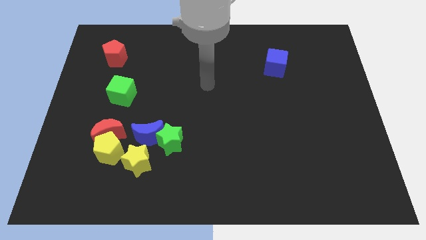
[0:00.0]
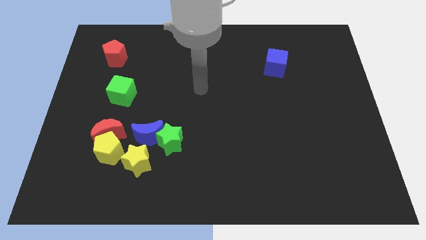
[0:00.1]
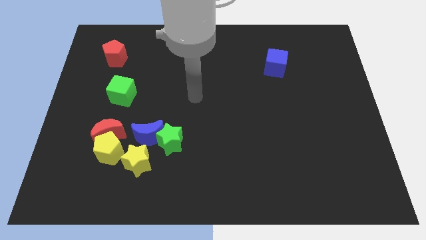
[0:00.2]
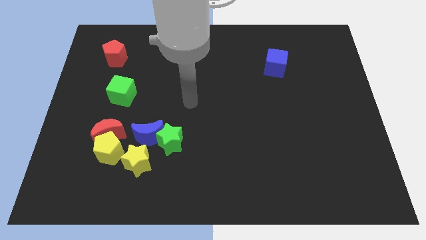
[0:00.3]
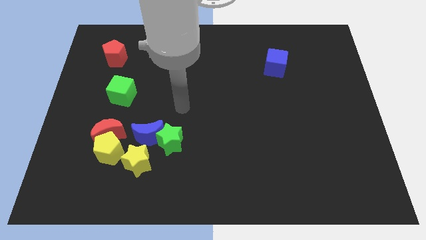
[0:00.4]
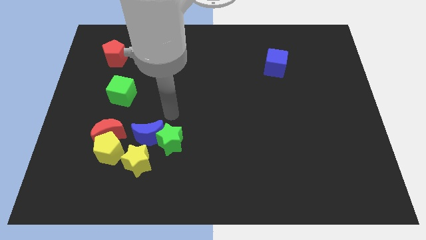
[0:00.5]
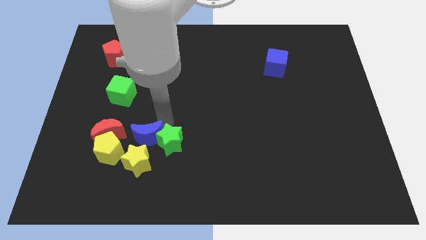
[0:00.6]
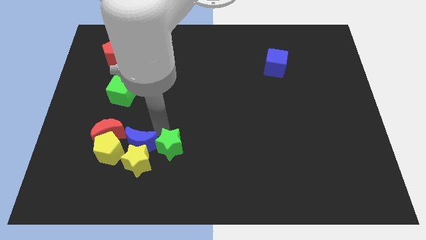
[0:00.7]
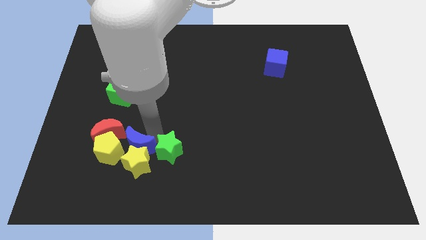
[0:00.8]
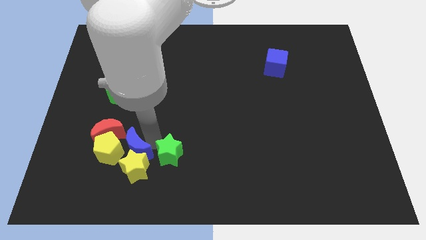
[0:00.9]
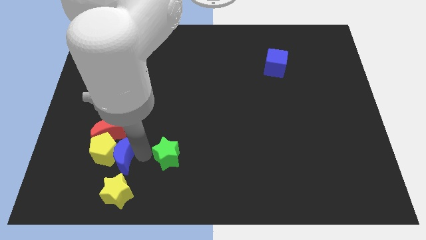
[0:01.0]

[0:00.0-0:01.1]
pull the green star apart from the blue moon and yellow star

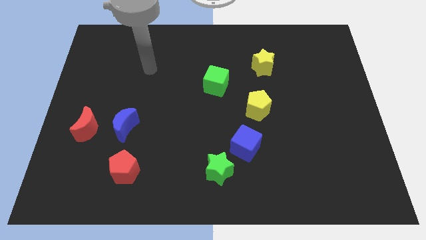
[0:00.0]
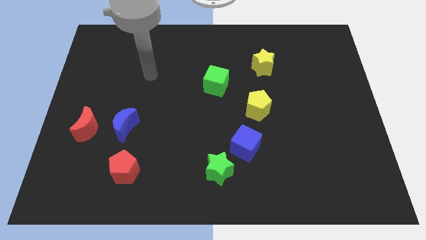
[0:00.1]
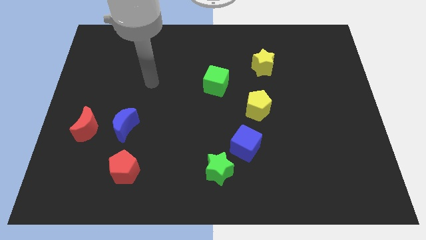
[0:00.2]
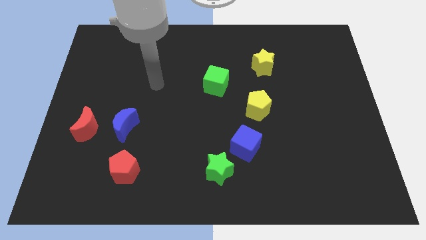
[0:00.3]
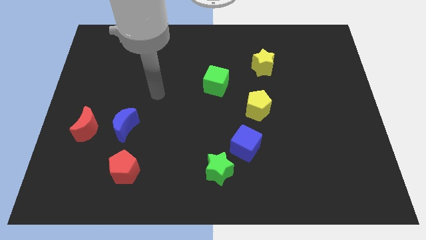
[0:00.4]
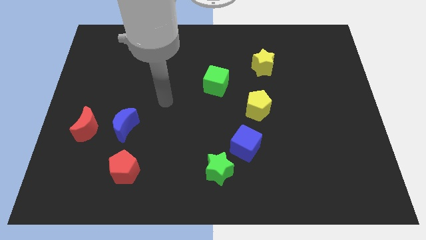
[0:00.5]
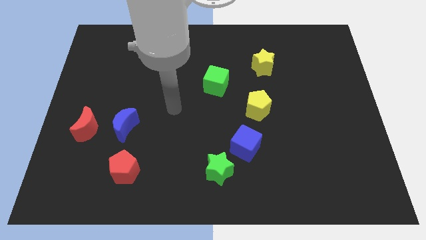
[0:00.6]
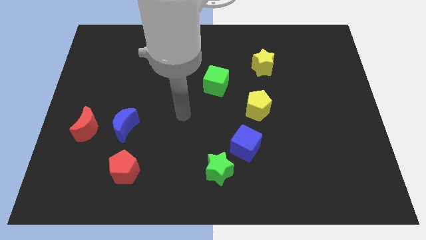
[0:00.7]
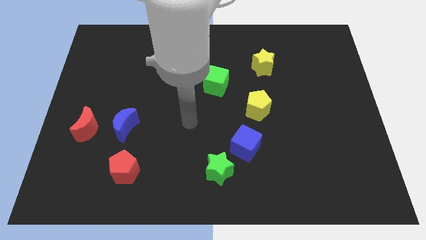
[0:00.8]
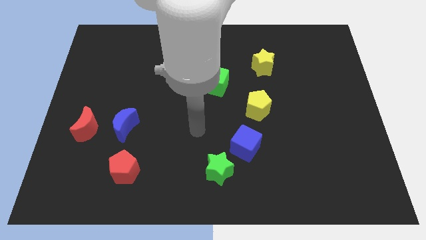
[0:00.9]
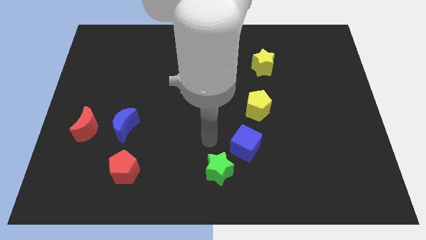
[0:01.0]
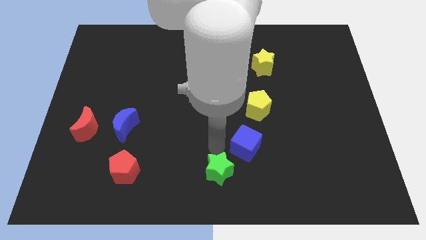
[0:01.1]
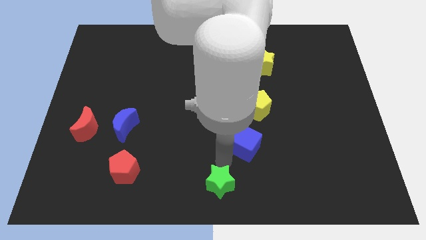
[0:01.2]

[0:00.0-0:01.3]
pull the blue cube apart from the green star

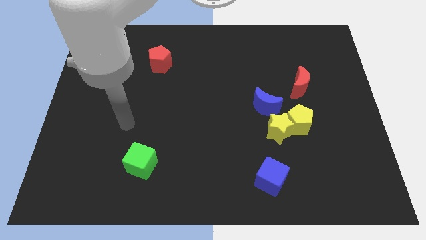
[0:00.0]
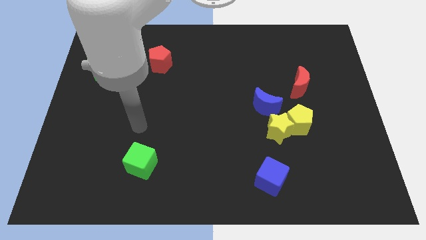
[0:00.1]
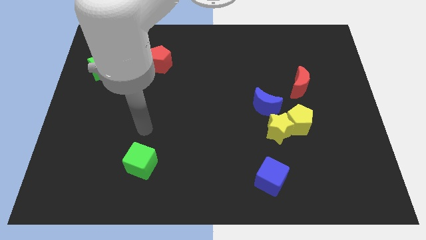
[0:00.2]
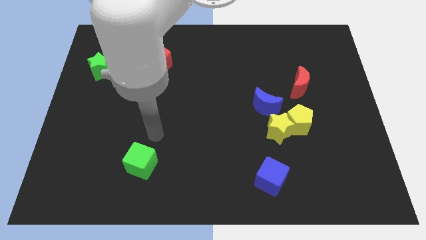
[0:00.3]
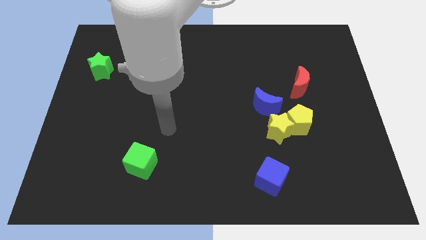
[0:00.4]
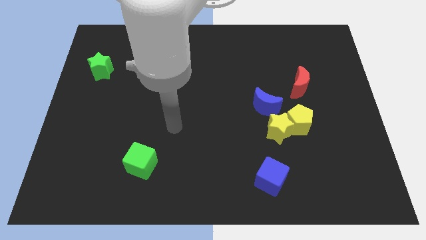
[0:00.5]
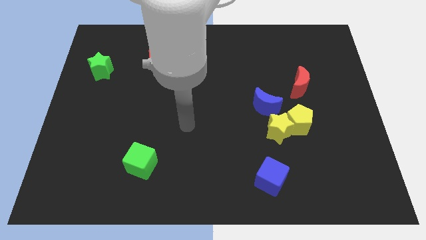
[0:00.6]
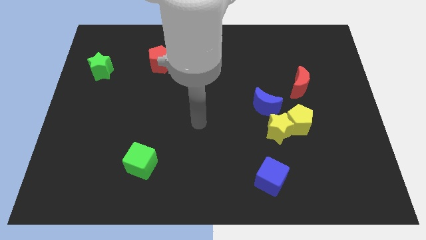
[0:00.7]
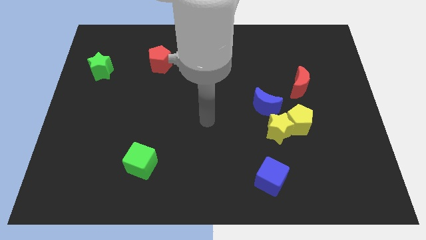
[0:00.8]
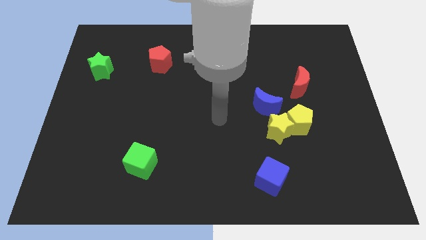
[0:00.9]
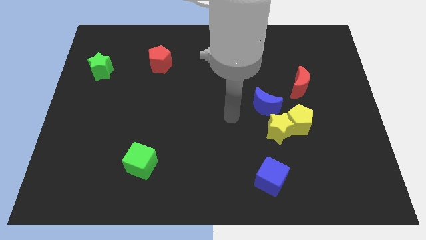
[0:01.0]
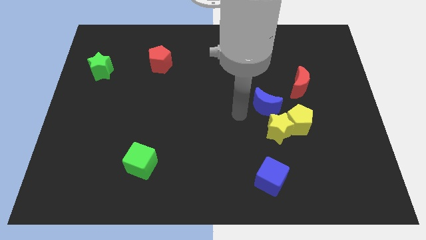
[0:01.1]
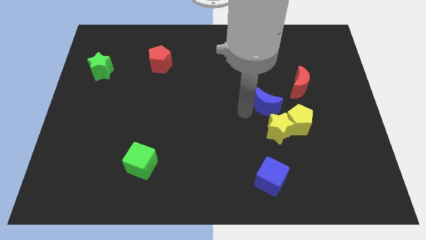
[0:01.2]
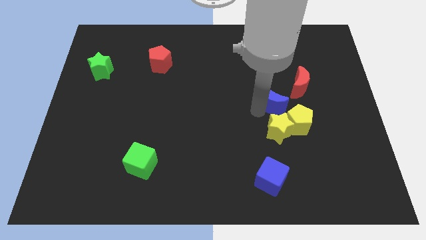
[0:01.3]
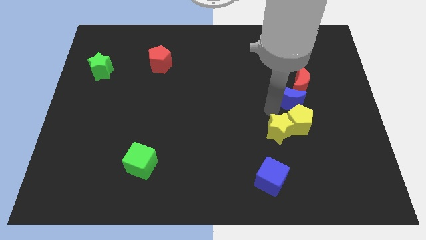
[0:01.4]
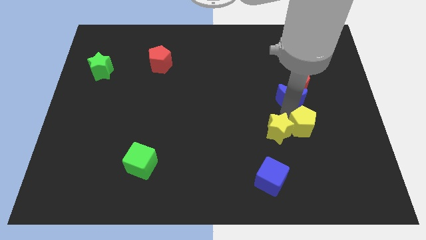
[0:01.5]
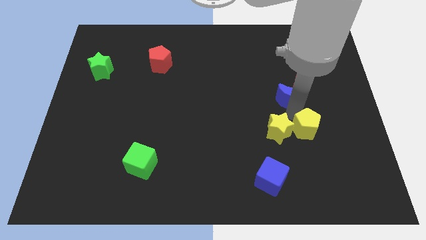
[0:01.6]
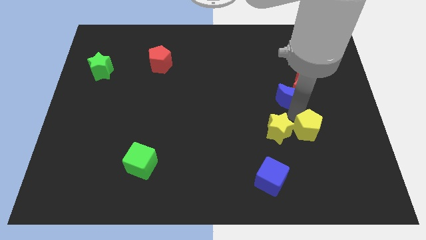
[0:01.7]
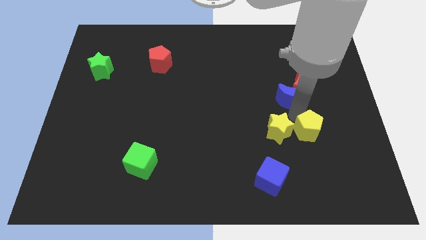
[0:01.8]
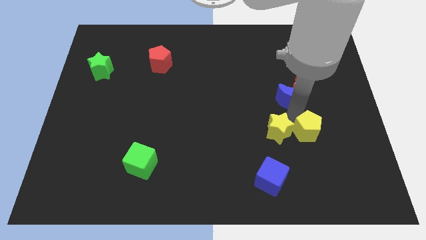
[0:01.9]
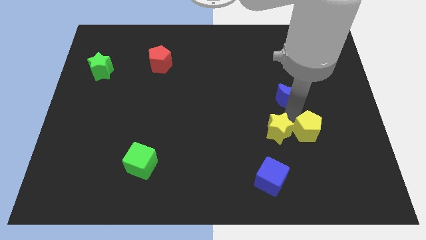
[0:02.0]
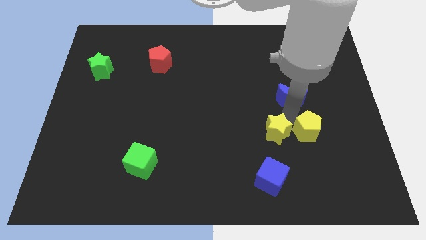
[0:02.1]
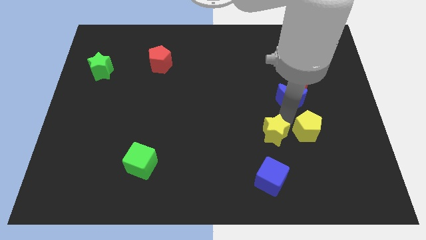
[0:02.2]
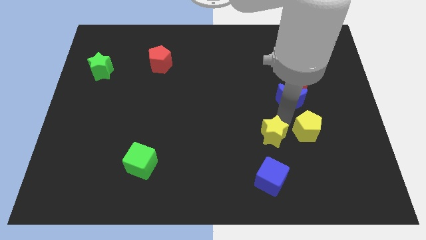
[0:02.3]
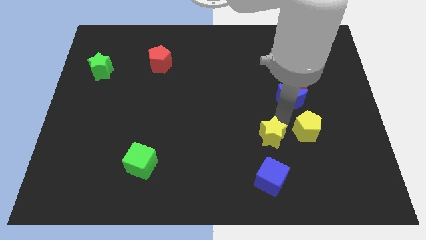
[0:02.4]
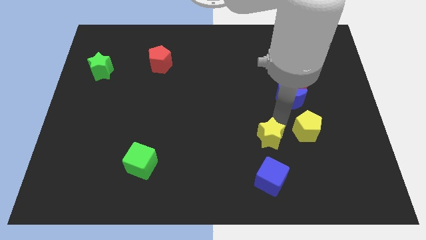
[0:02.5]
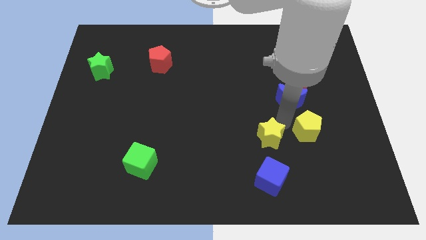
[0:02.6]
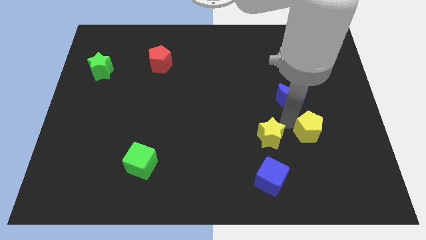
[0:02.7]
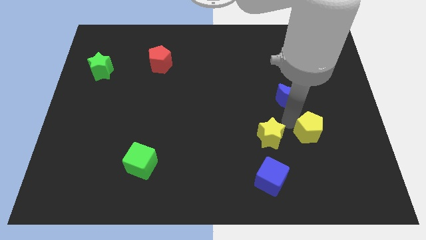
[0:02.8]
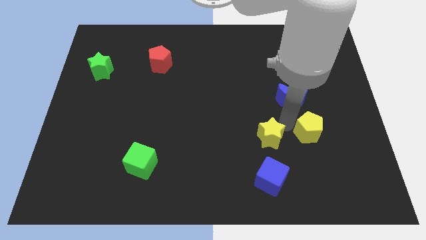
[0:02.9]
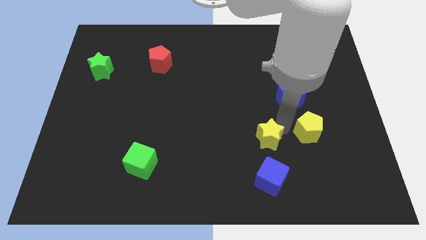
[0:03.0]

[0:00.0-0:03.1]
move the yellow star away from the yellow pentagon and blue moon

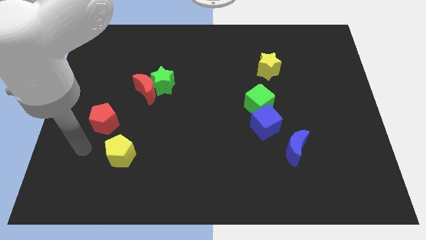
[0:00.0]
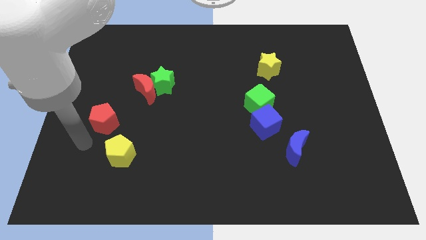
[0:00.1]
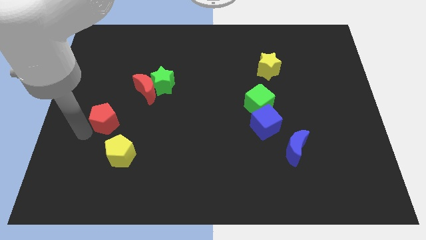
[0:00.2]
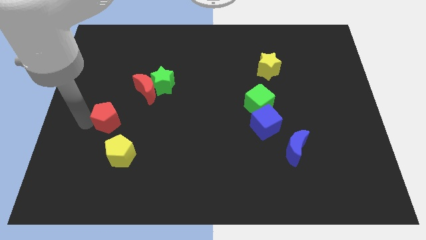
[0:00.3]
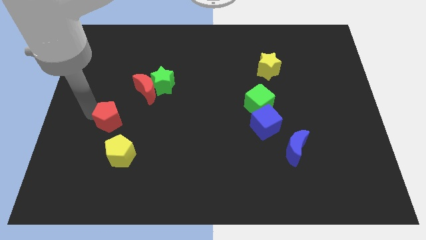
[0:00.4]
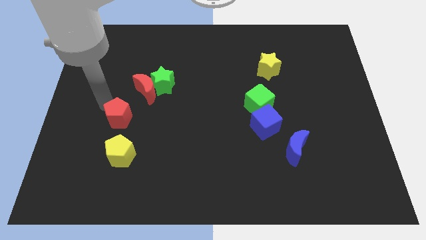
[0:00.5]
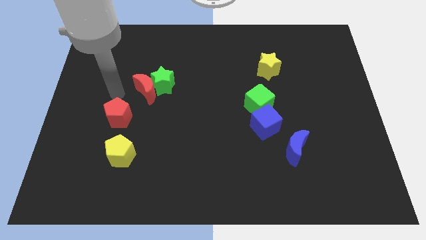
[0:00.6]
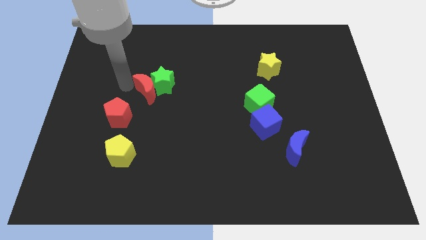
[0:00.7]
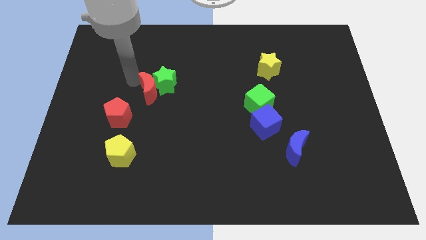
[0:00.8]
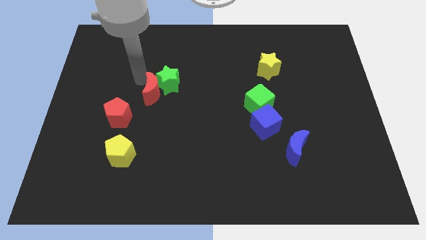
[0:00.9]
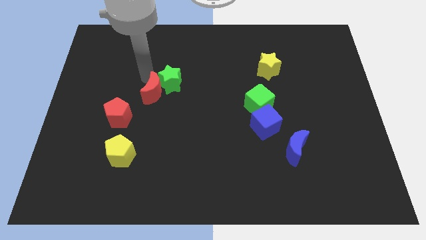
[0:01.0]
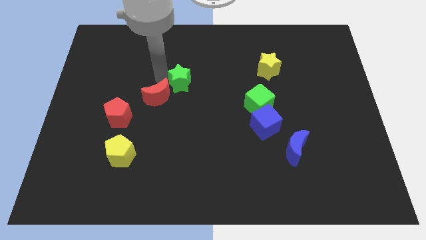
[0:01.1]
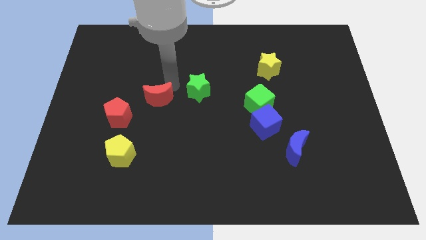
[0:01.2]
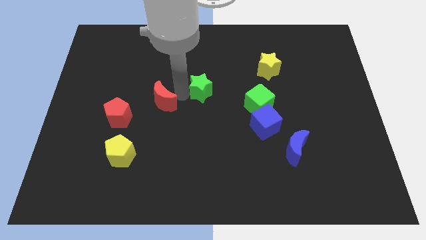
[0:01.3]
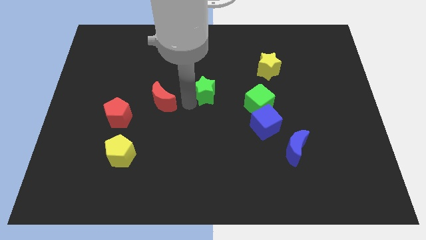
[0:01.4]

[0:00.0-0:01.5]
move the red moon away from the green star

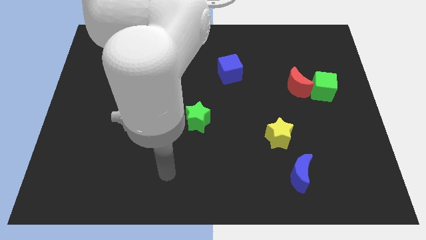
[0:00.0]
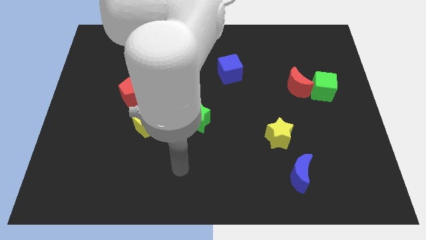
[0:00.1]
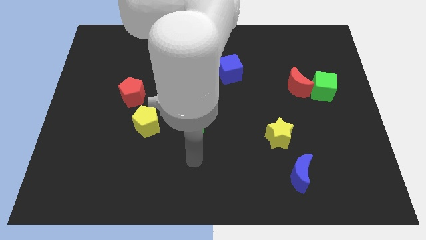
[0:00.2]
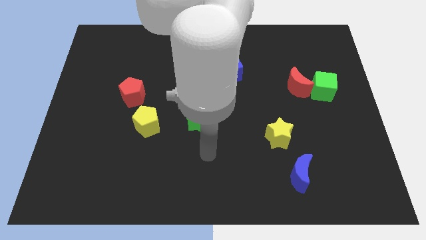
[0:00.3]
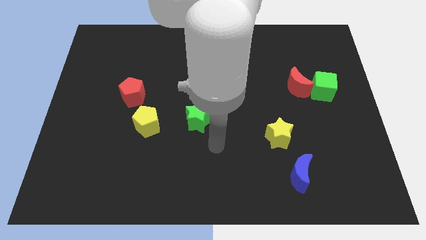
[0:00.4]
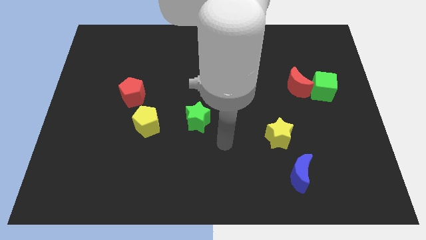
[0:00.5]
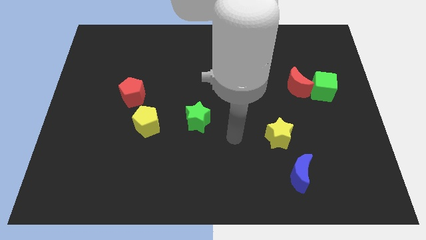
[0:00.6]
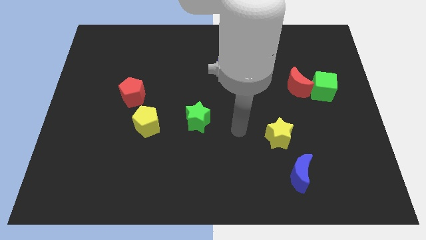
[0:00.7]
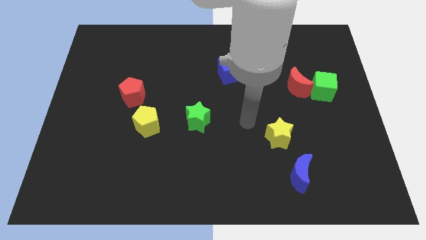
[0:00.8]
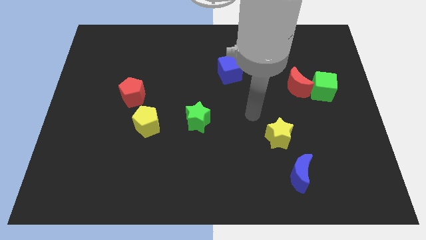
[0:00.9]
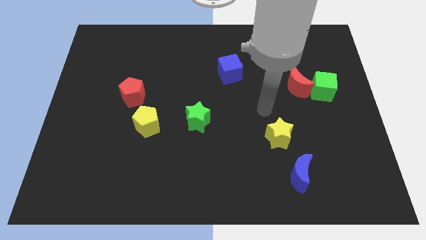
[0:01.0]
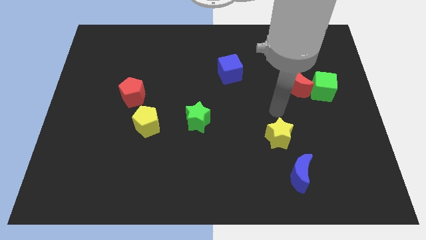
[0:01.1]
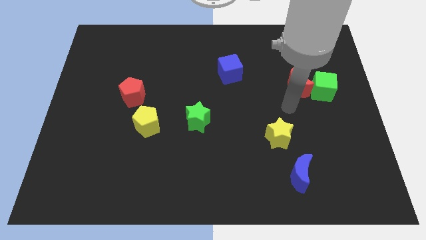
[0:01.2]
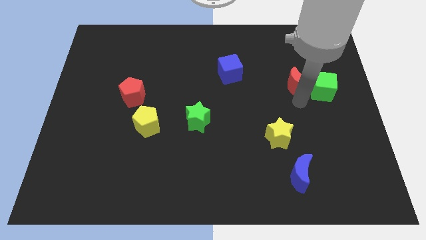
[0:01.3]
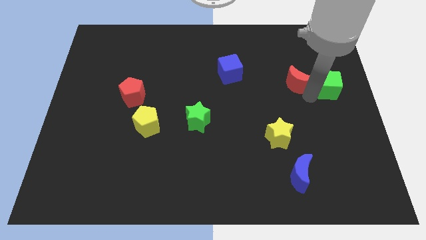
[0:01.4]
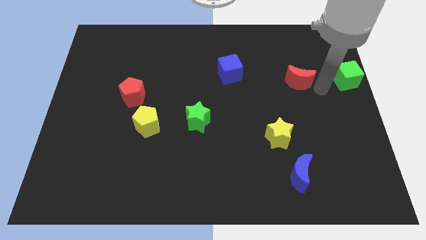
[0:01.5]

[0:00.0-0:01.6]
pull the red moon apart from the green cube

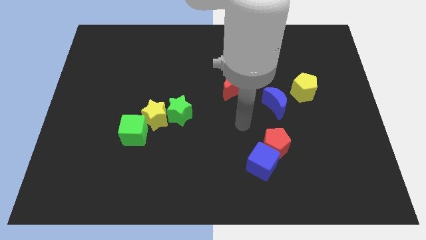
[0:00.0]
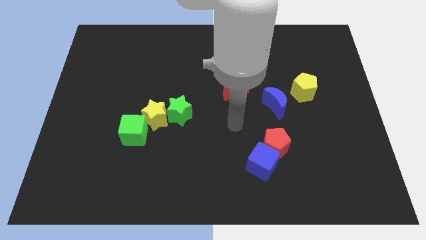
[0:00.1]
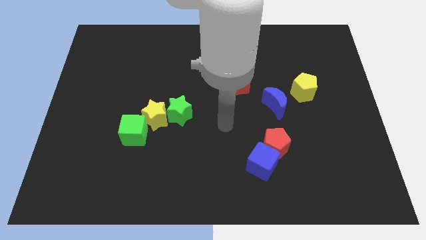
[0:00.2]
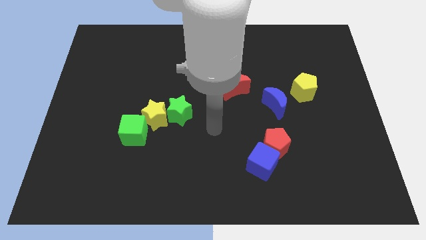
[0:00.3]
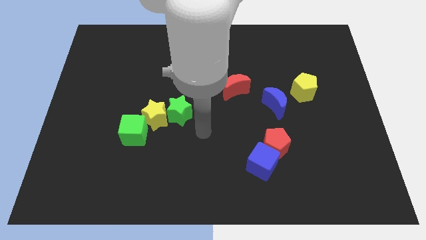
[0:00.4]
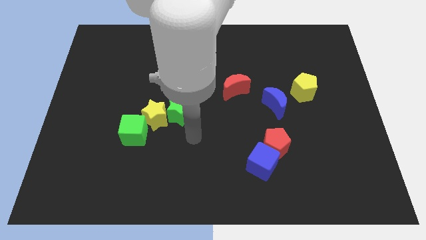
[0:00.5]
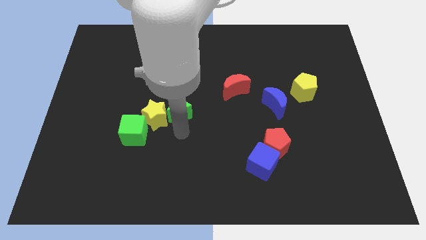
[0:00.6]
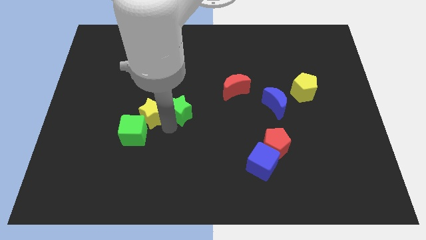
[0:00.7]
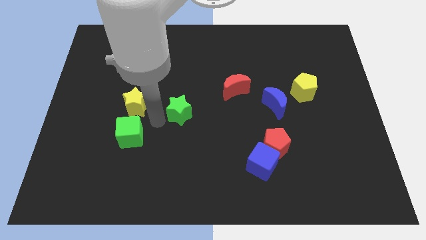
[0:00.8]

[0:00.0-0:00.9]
move the green star away from the yellow star
